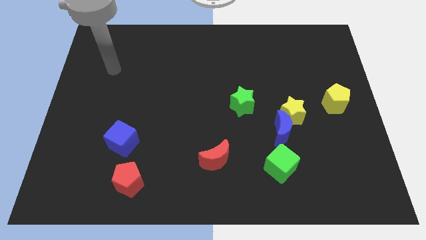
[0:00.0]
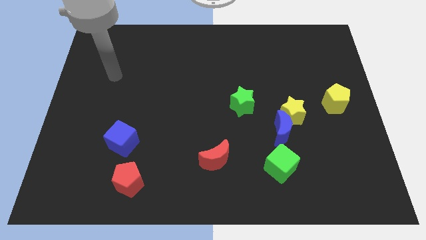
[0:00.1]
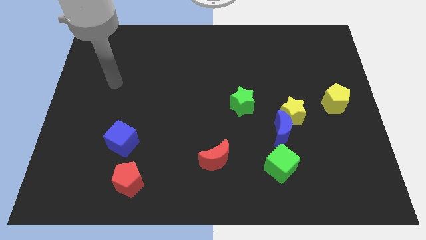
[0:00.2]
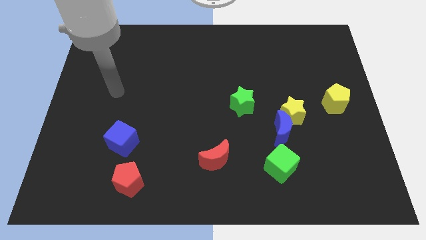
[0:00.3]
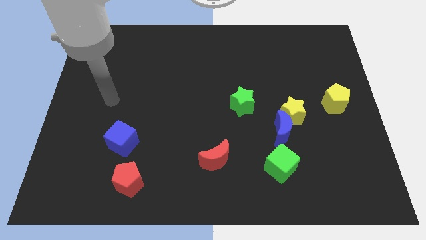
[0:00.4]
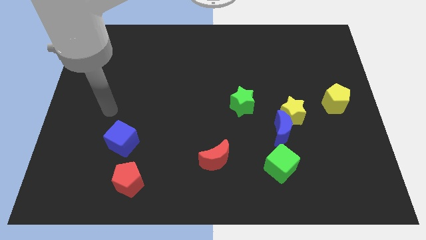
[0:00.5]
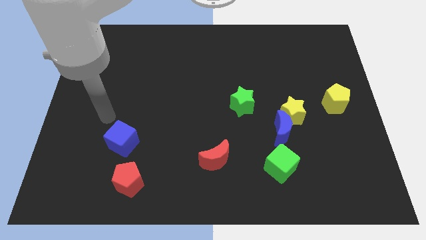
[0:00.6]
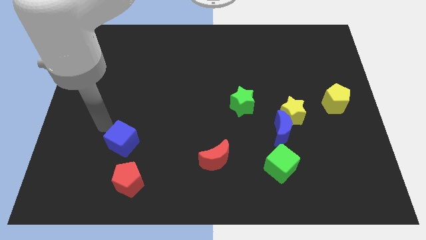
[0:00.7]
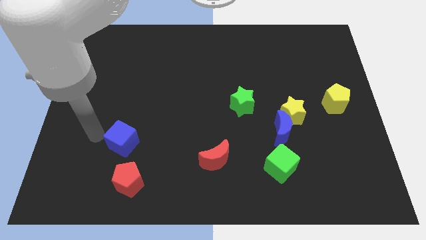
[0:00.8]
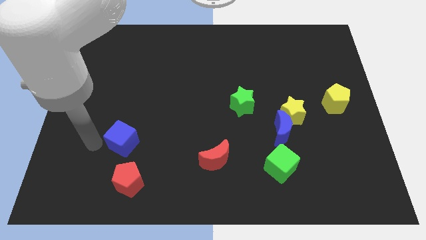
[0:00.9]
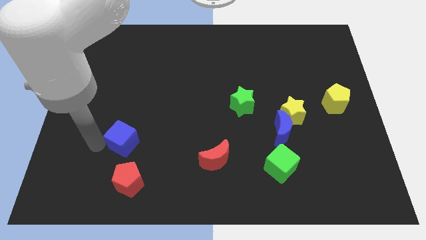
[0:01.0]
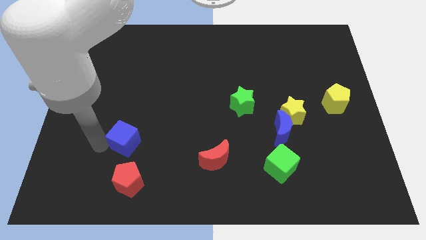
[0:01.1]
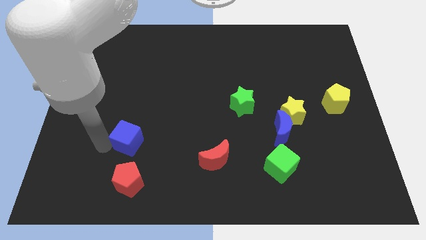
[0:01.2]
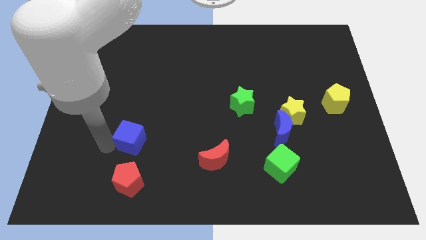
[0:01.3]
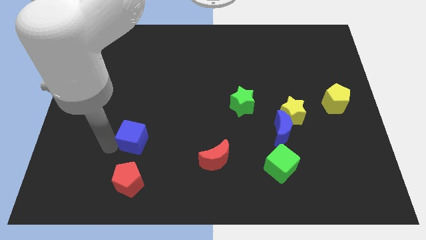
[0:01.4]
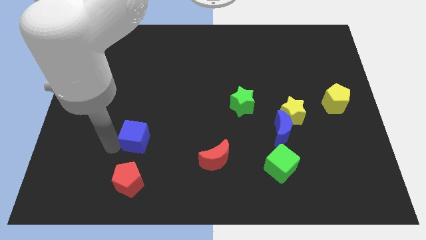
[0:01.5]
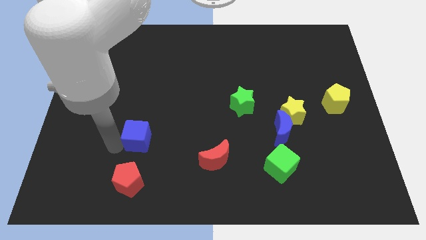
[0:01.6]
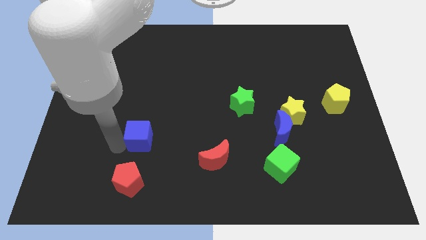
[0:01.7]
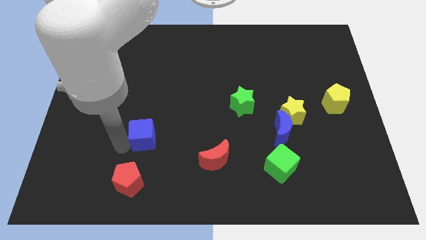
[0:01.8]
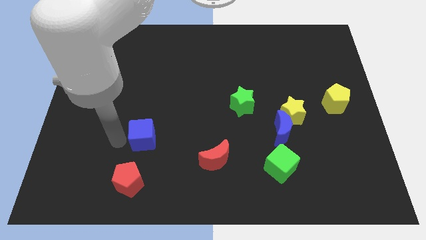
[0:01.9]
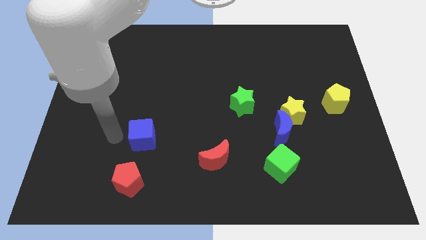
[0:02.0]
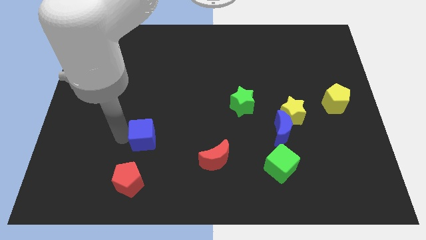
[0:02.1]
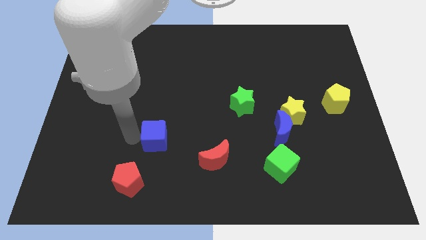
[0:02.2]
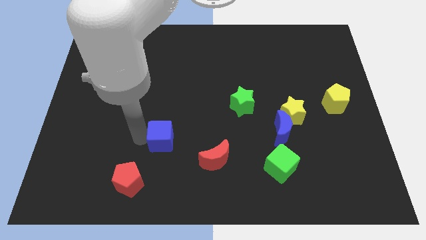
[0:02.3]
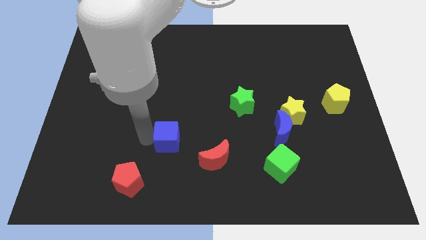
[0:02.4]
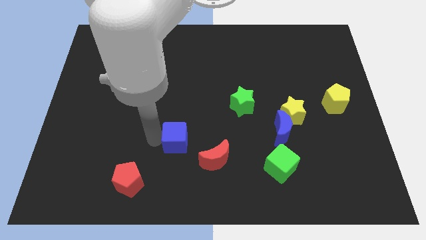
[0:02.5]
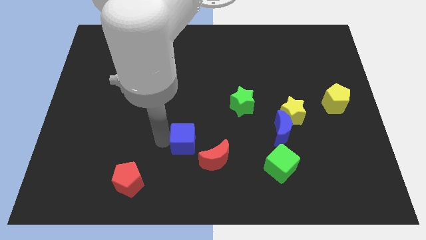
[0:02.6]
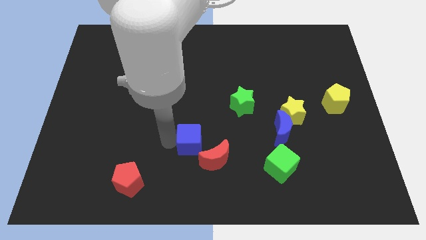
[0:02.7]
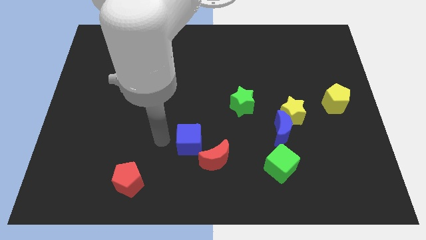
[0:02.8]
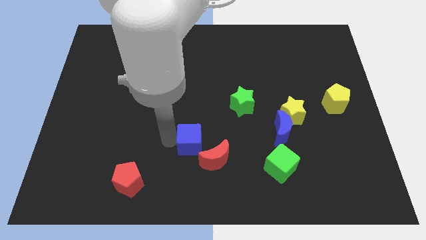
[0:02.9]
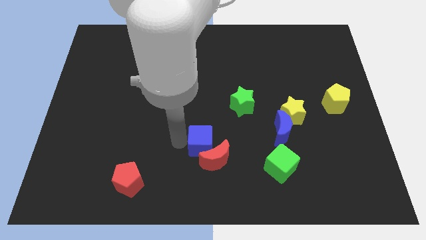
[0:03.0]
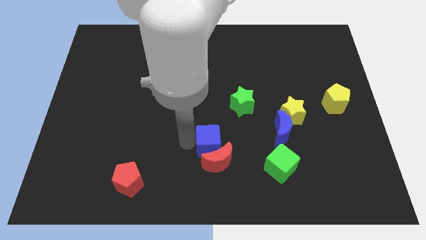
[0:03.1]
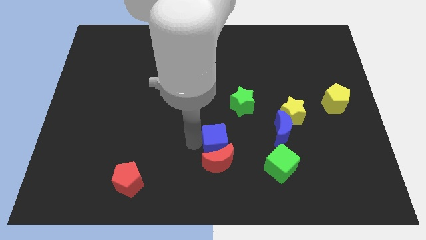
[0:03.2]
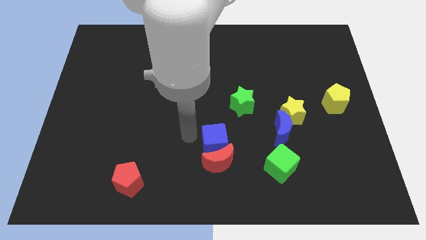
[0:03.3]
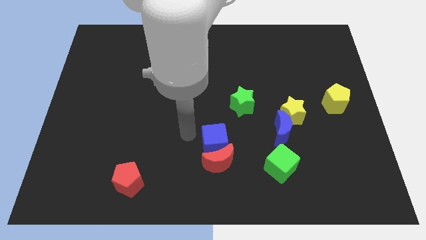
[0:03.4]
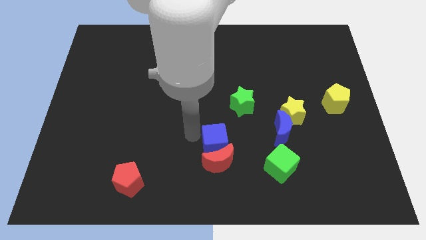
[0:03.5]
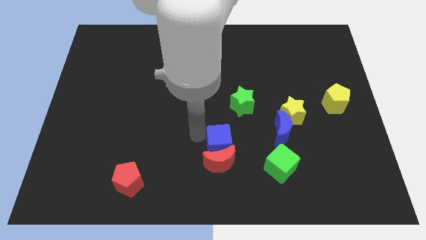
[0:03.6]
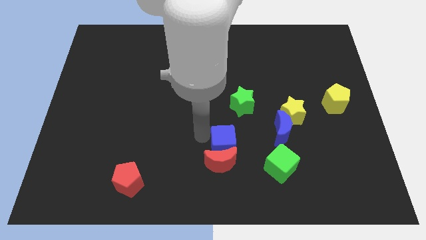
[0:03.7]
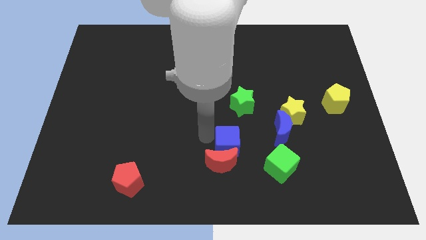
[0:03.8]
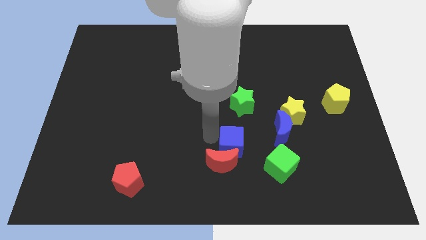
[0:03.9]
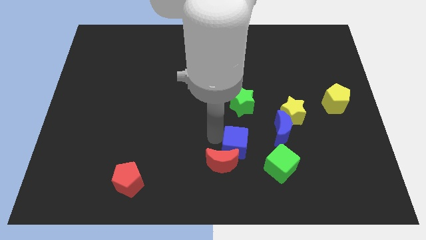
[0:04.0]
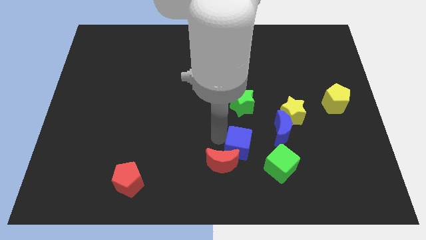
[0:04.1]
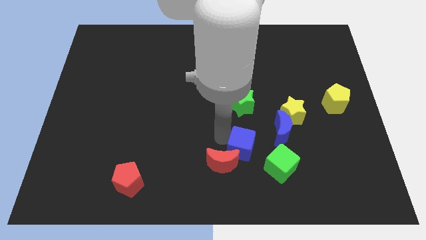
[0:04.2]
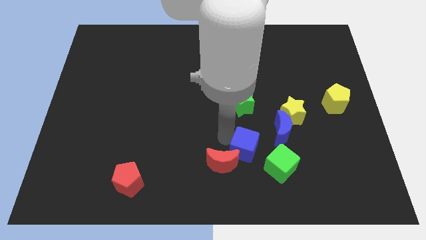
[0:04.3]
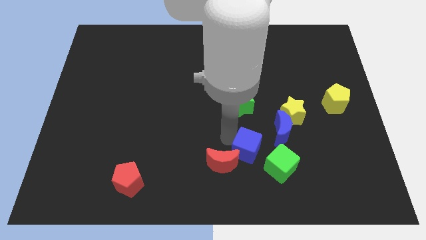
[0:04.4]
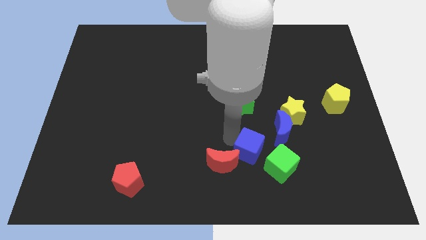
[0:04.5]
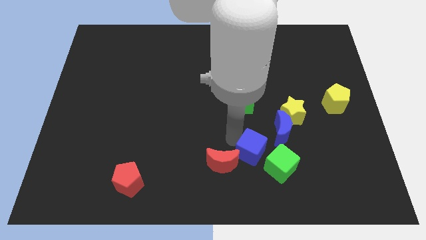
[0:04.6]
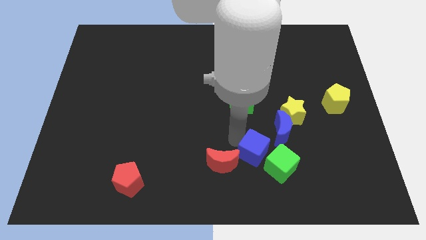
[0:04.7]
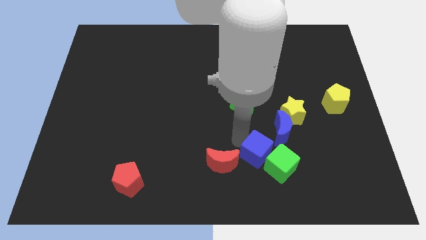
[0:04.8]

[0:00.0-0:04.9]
move the blue cube to the green cube

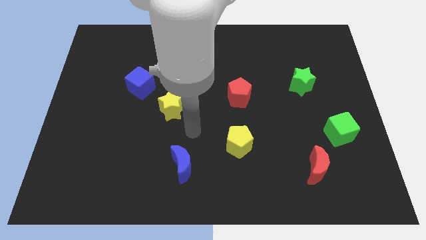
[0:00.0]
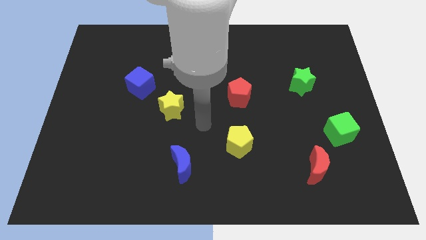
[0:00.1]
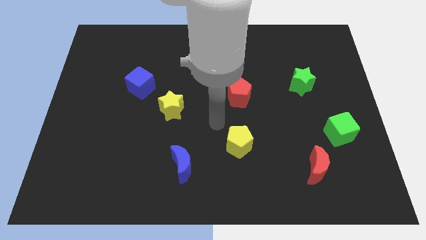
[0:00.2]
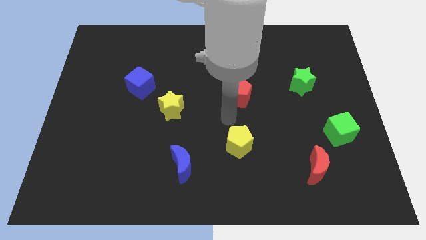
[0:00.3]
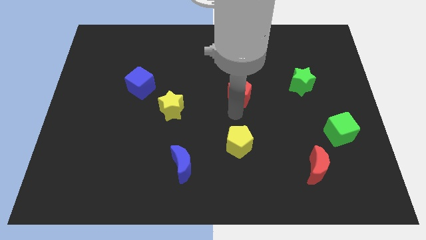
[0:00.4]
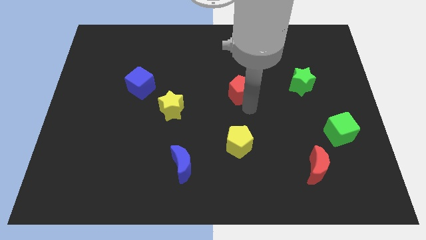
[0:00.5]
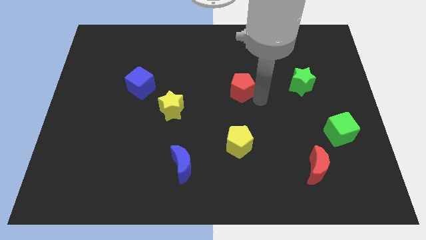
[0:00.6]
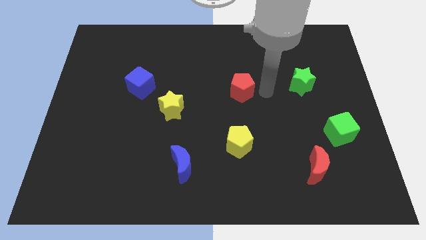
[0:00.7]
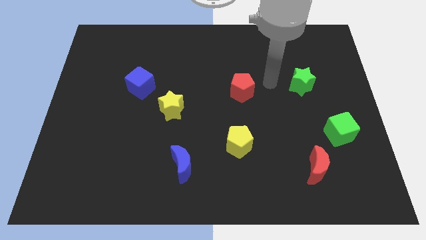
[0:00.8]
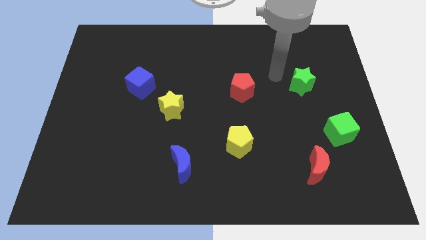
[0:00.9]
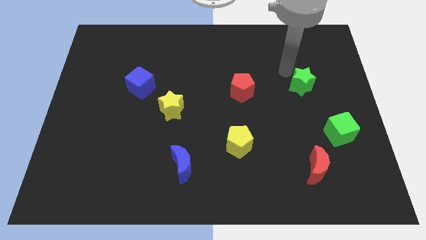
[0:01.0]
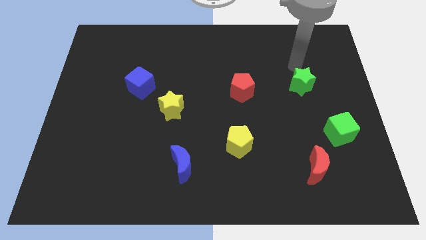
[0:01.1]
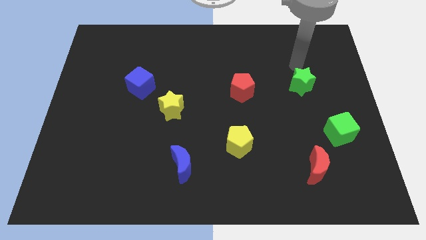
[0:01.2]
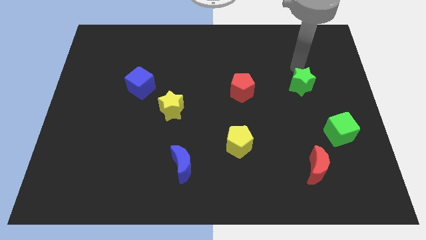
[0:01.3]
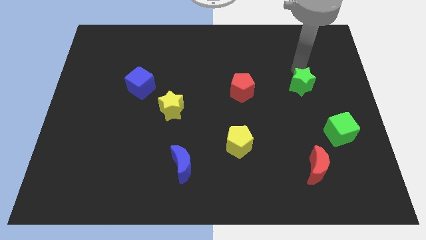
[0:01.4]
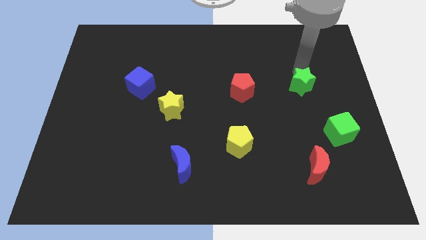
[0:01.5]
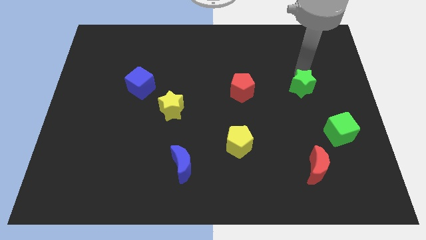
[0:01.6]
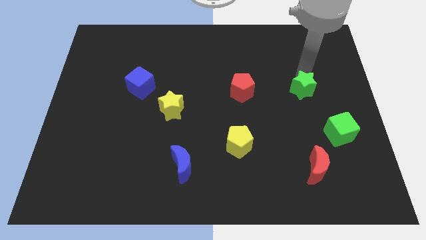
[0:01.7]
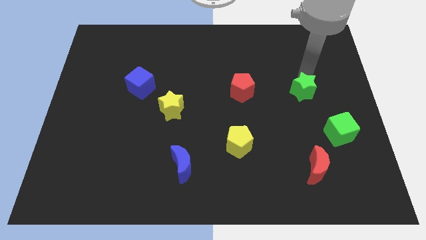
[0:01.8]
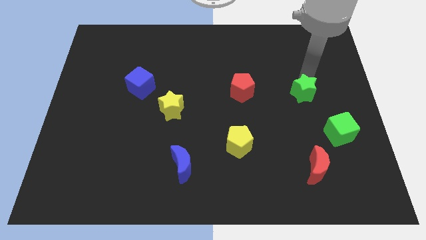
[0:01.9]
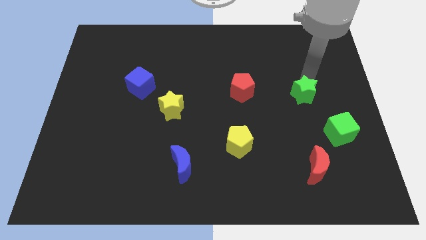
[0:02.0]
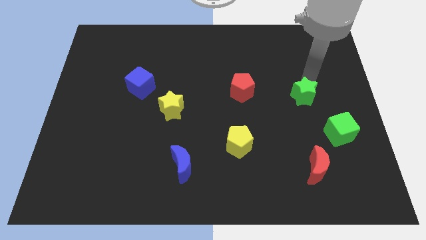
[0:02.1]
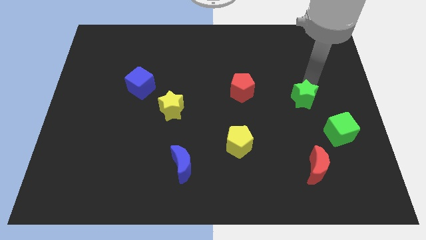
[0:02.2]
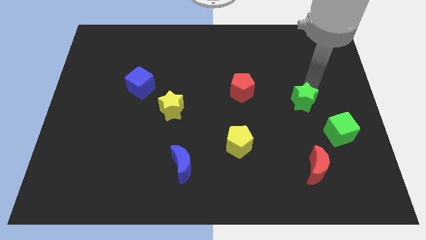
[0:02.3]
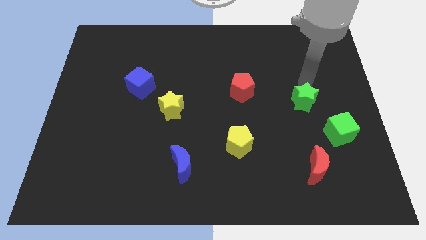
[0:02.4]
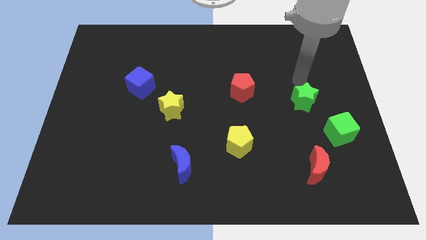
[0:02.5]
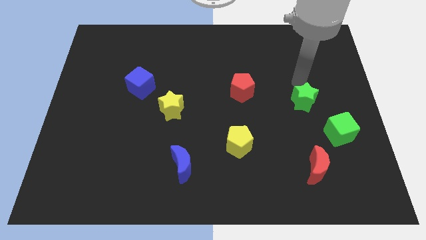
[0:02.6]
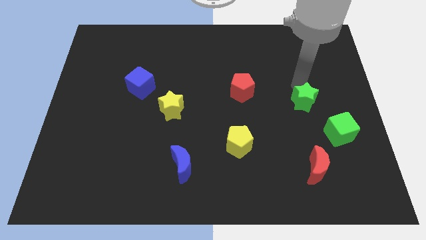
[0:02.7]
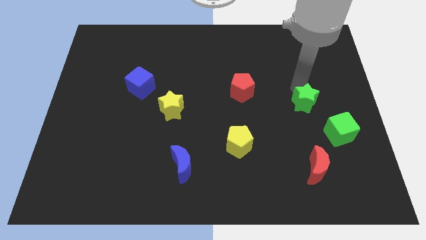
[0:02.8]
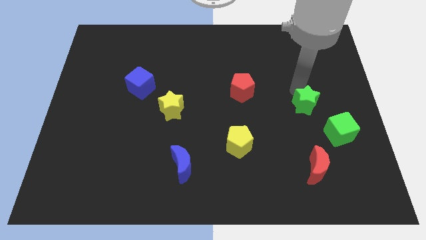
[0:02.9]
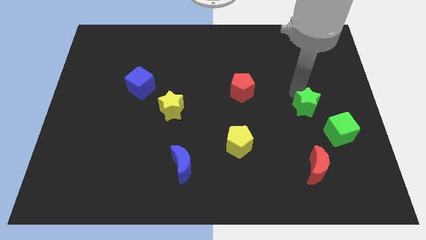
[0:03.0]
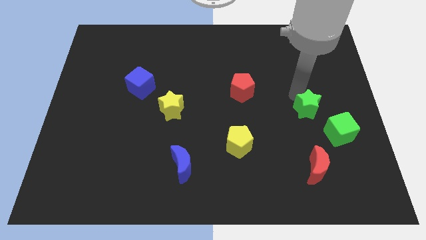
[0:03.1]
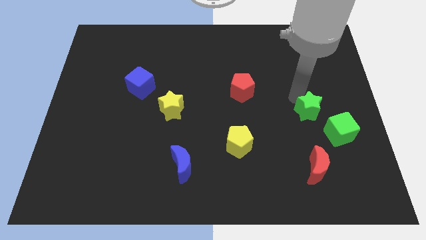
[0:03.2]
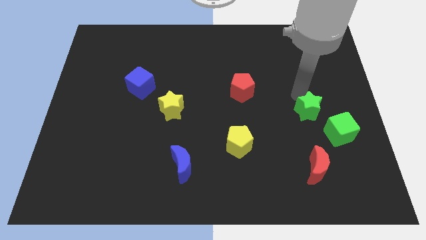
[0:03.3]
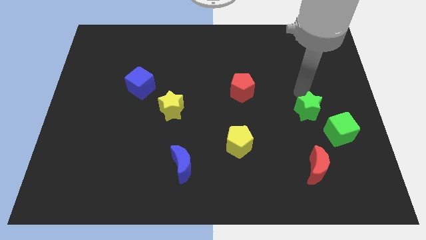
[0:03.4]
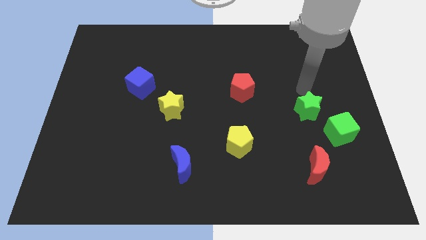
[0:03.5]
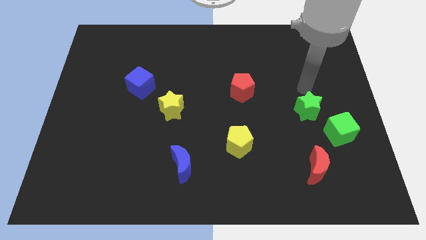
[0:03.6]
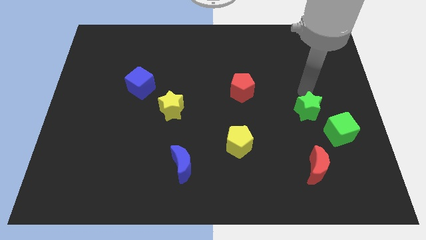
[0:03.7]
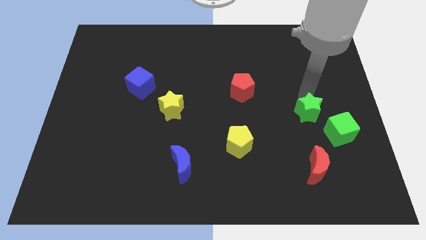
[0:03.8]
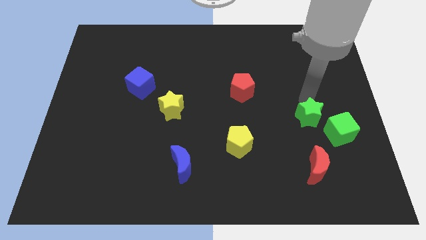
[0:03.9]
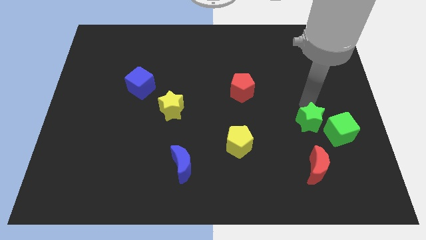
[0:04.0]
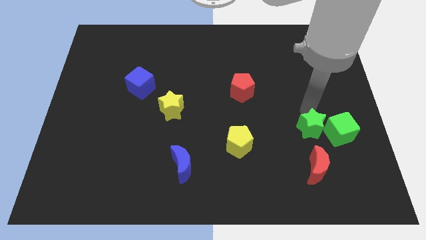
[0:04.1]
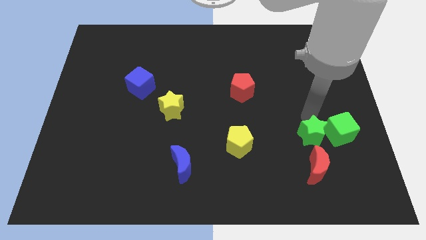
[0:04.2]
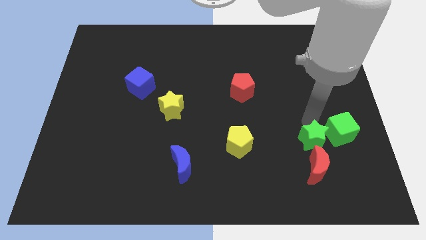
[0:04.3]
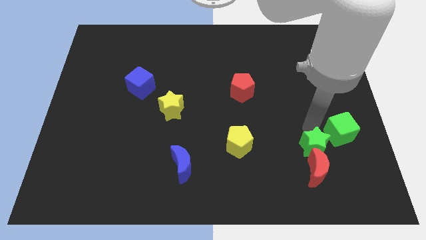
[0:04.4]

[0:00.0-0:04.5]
move the green star next to the red moon
